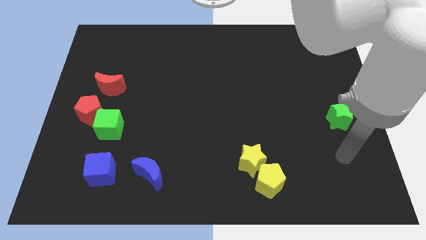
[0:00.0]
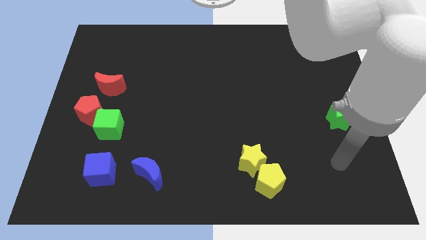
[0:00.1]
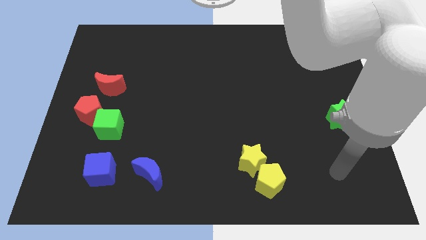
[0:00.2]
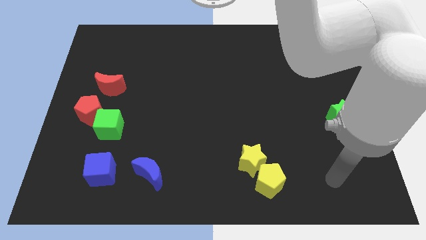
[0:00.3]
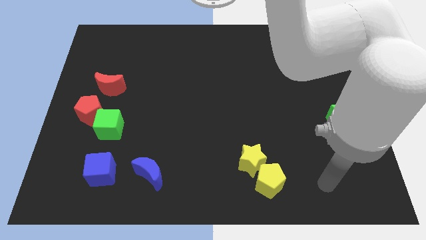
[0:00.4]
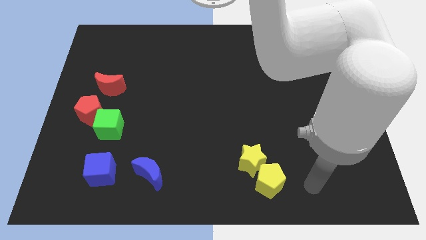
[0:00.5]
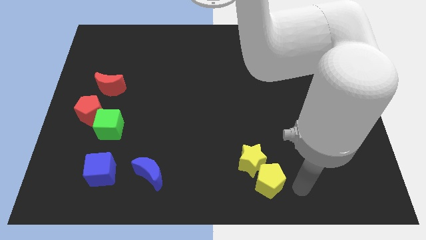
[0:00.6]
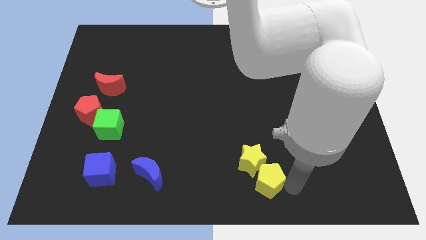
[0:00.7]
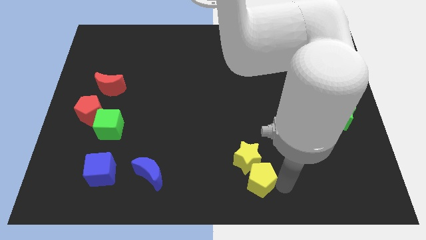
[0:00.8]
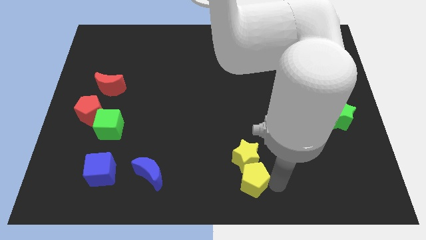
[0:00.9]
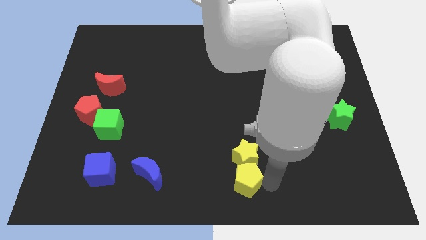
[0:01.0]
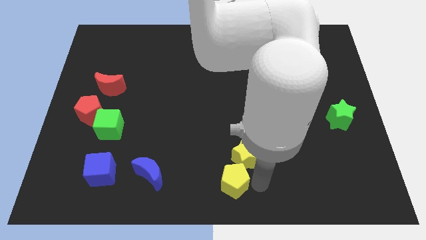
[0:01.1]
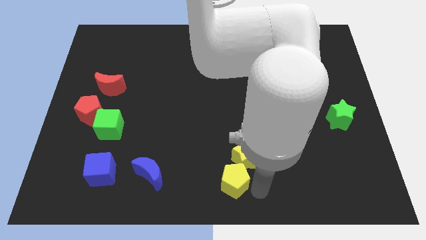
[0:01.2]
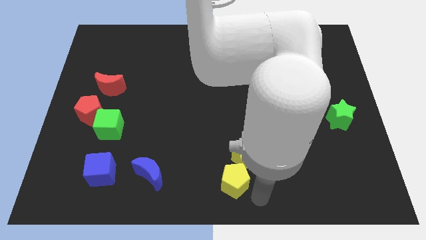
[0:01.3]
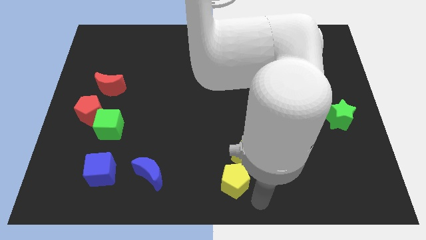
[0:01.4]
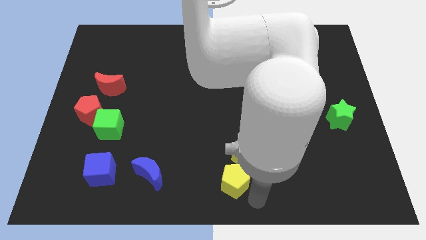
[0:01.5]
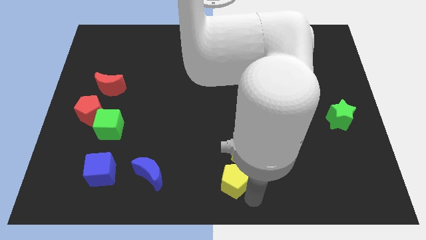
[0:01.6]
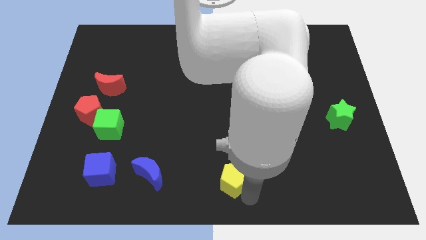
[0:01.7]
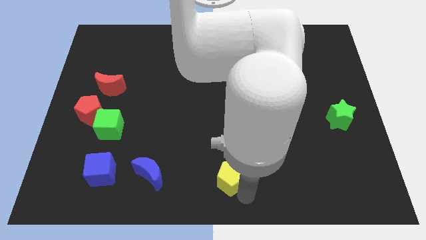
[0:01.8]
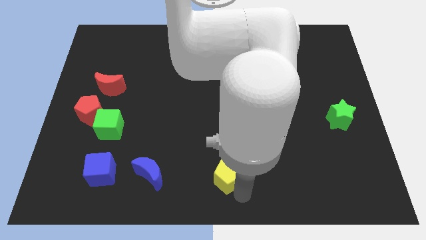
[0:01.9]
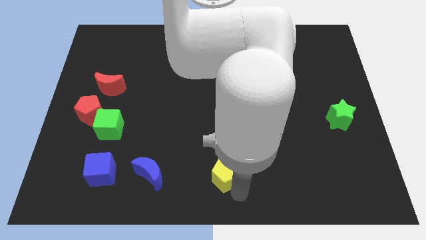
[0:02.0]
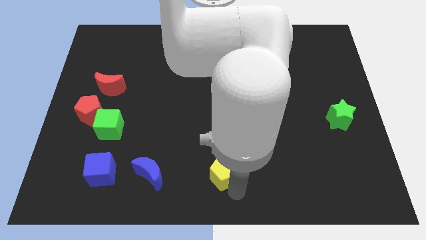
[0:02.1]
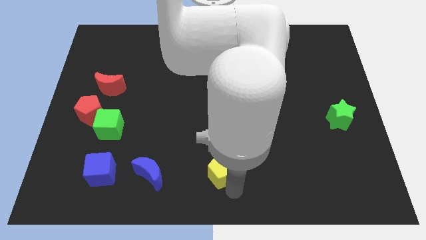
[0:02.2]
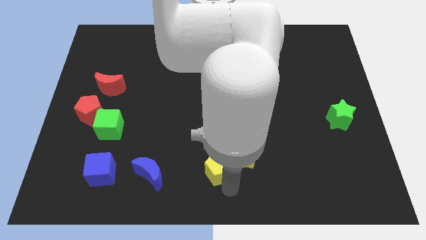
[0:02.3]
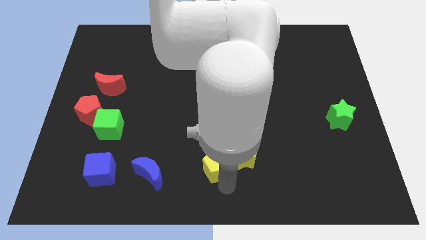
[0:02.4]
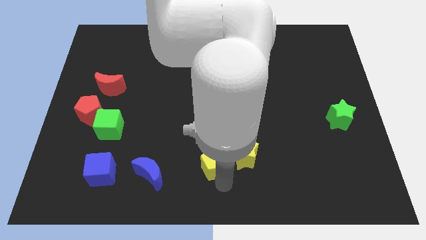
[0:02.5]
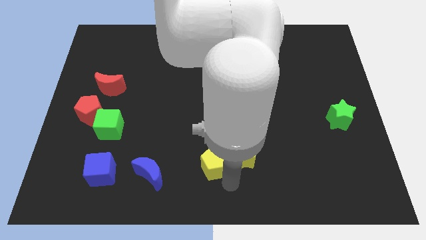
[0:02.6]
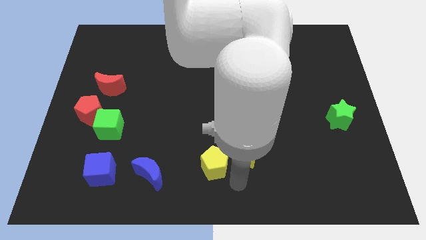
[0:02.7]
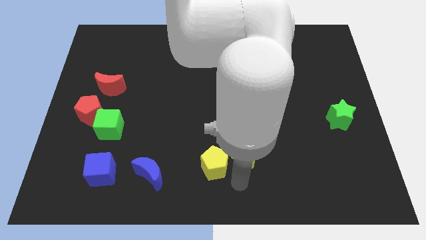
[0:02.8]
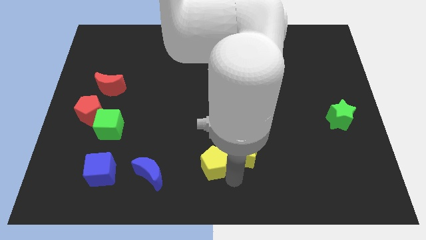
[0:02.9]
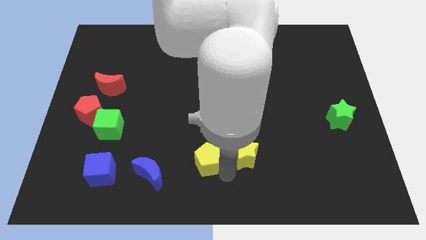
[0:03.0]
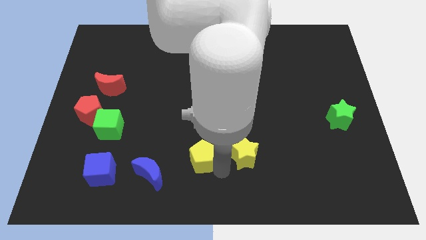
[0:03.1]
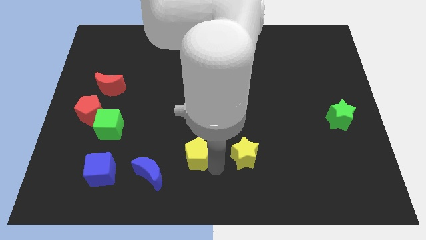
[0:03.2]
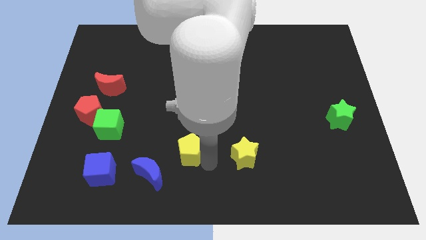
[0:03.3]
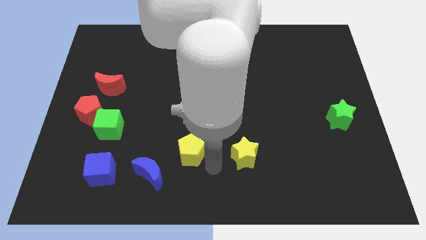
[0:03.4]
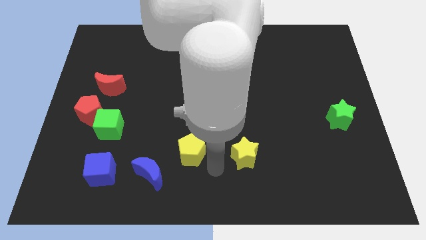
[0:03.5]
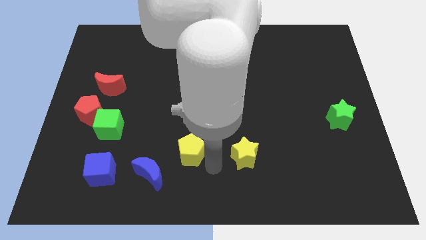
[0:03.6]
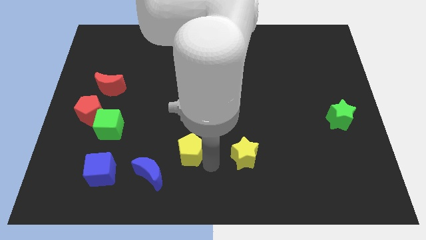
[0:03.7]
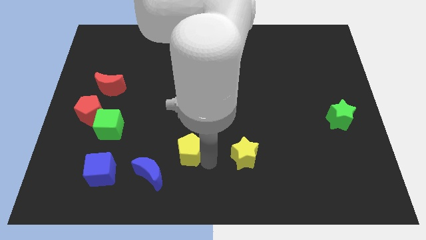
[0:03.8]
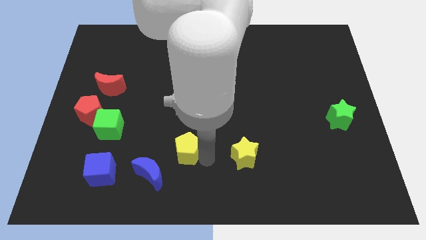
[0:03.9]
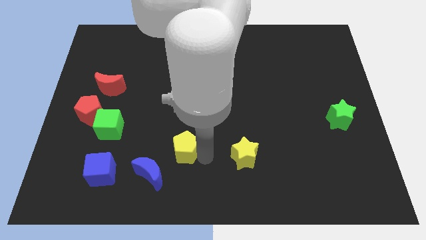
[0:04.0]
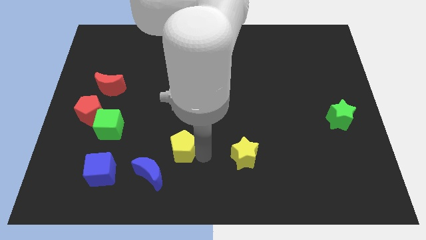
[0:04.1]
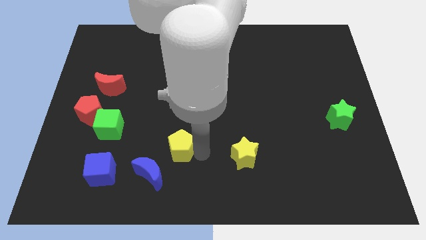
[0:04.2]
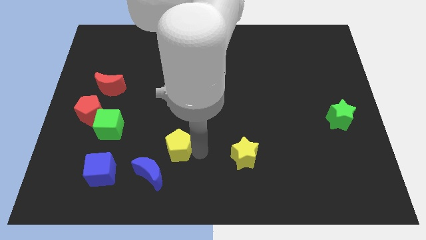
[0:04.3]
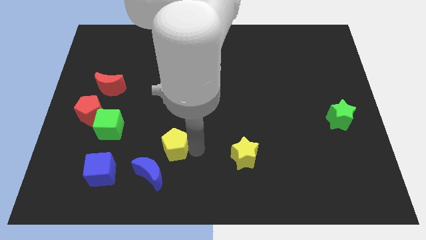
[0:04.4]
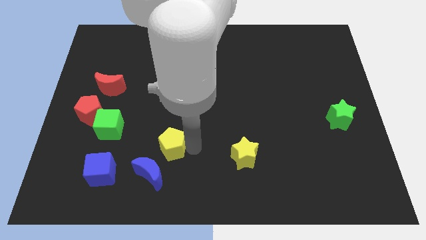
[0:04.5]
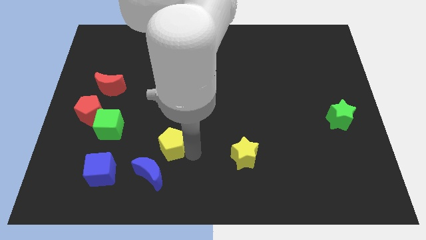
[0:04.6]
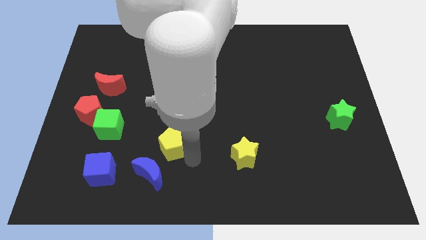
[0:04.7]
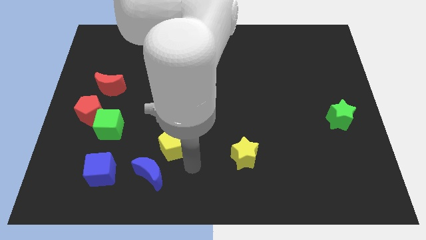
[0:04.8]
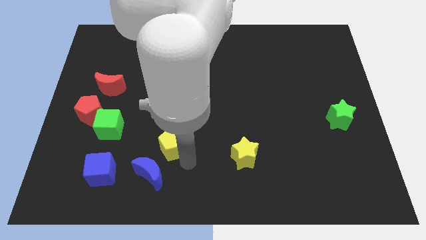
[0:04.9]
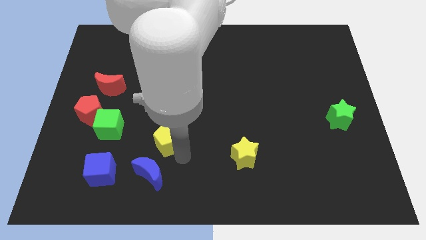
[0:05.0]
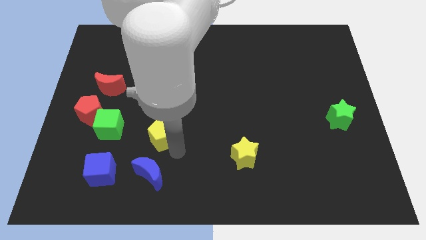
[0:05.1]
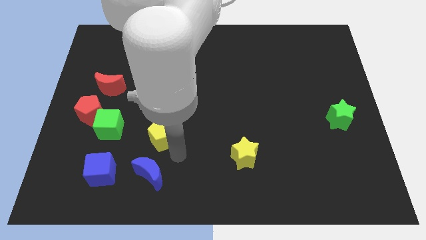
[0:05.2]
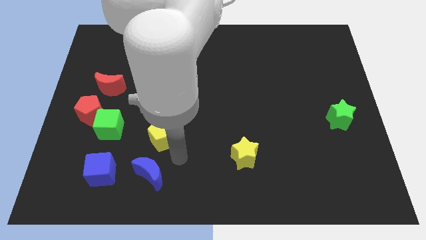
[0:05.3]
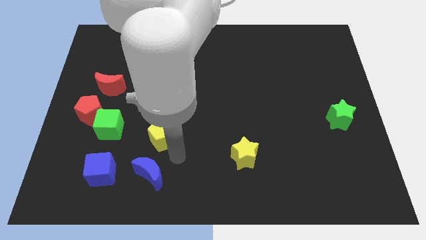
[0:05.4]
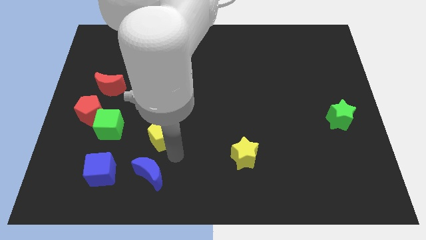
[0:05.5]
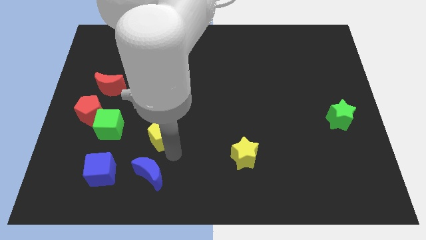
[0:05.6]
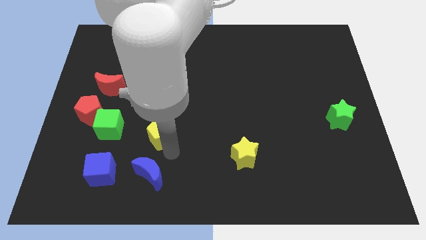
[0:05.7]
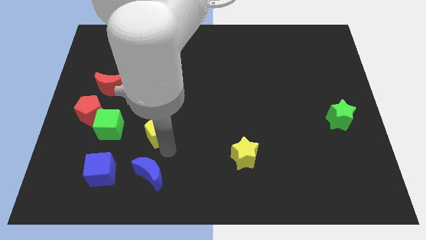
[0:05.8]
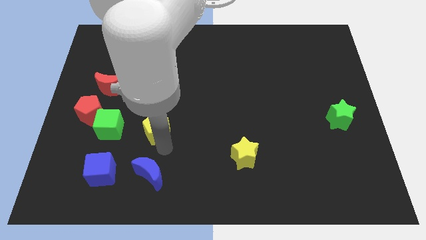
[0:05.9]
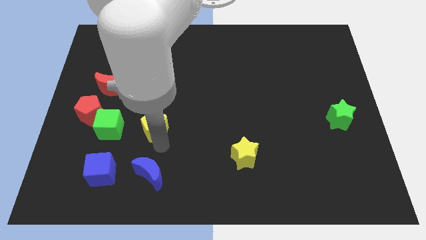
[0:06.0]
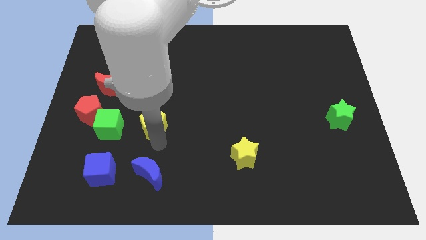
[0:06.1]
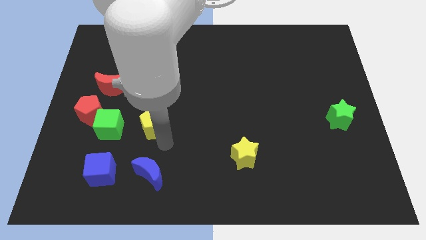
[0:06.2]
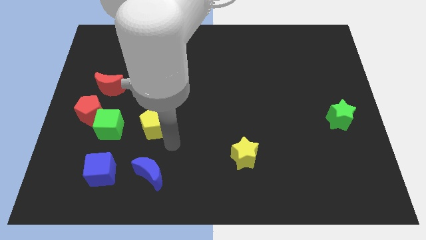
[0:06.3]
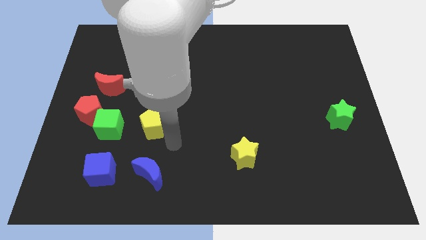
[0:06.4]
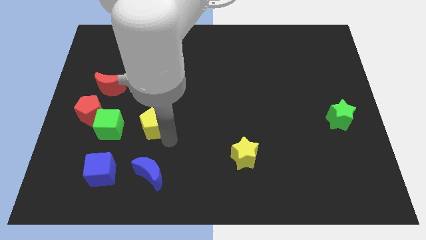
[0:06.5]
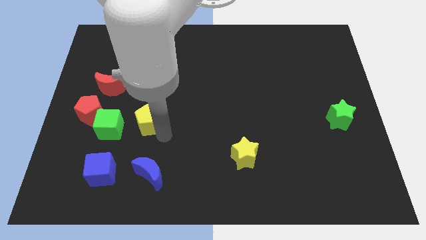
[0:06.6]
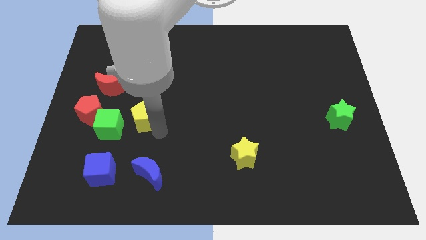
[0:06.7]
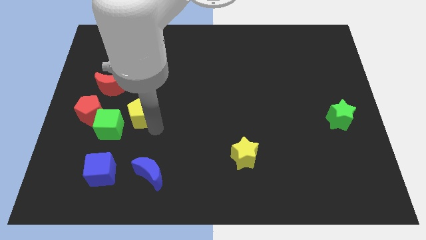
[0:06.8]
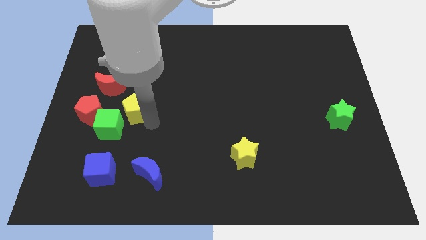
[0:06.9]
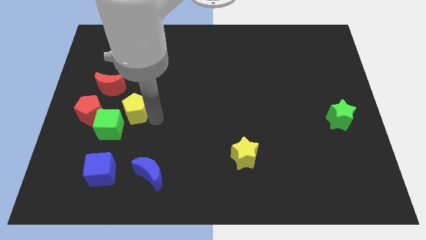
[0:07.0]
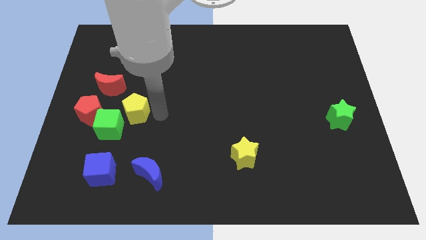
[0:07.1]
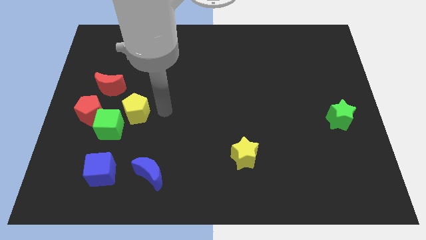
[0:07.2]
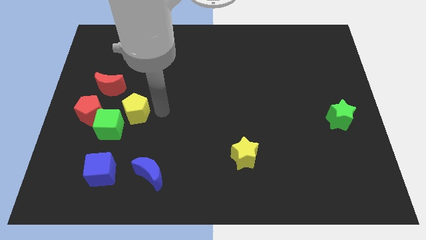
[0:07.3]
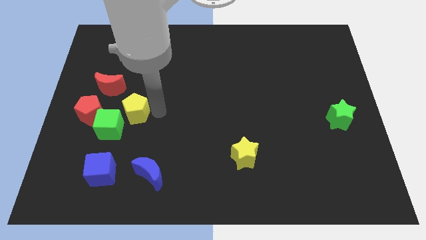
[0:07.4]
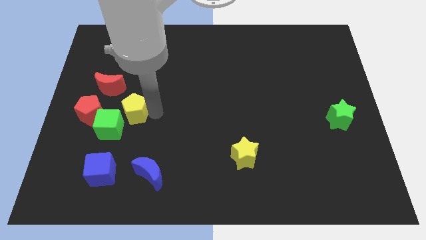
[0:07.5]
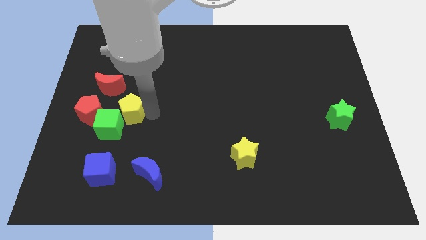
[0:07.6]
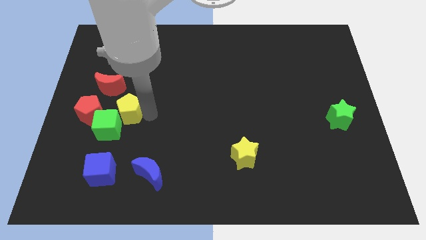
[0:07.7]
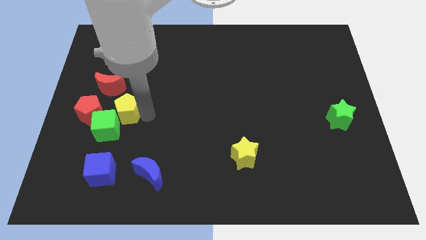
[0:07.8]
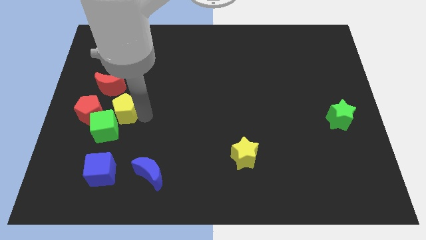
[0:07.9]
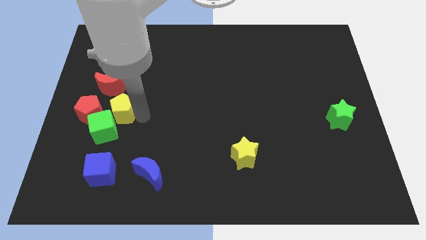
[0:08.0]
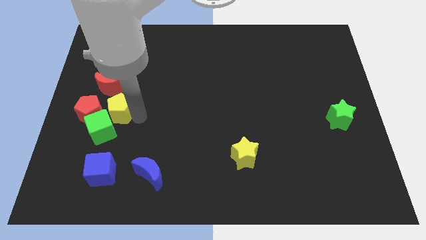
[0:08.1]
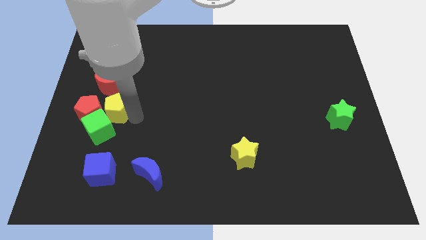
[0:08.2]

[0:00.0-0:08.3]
push the yellow pentagon towards the red pentagon
